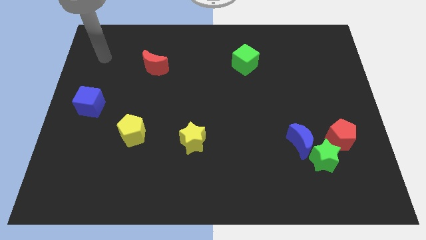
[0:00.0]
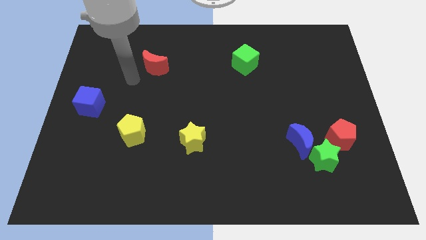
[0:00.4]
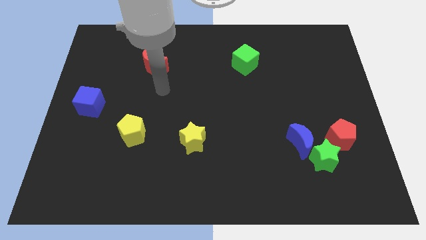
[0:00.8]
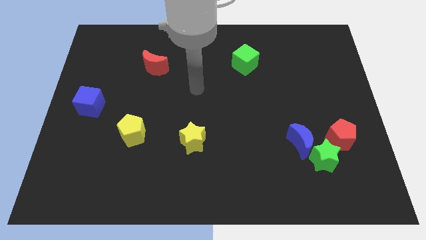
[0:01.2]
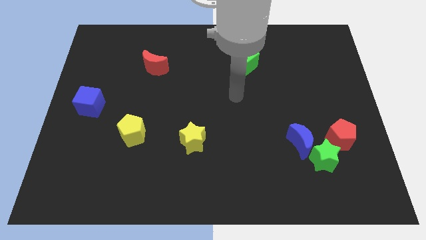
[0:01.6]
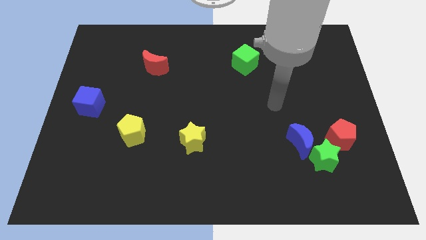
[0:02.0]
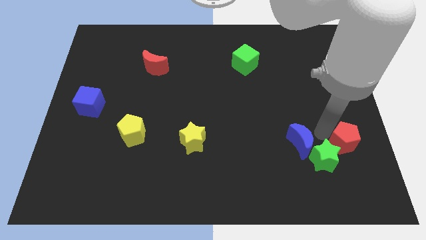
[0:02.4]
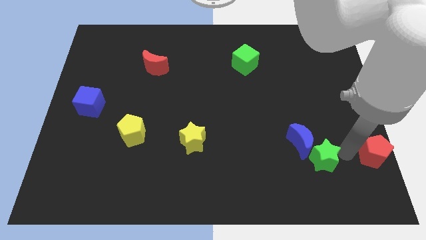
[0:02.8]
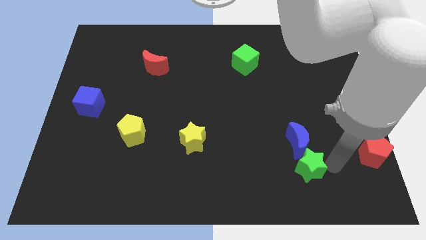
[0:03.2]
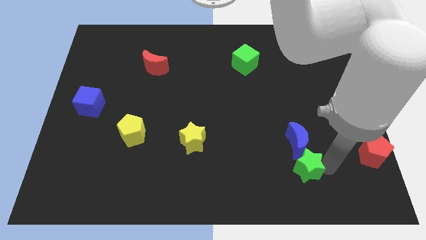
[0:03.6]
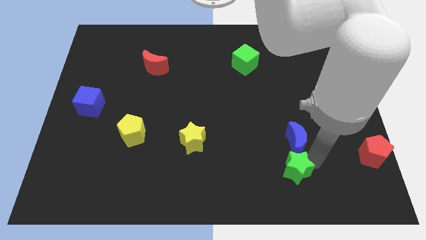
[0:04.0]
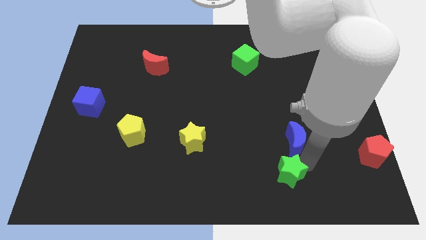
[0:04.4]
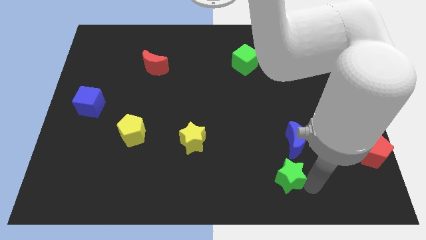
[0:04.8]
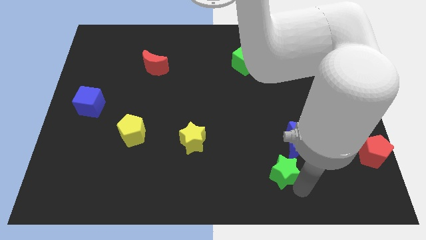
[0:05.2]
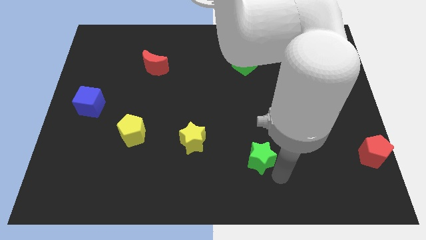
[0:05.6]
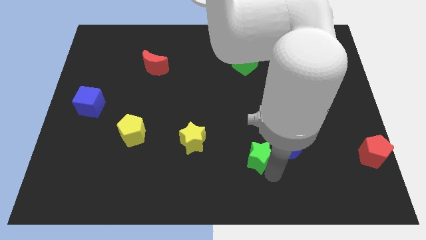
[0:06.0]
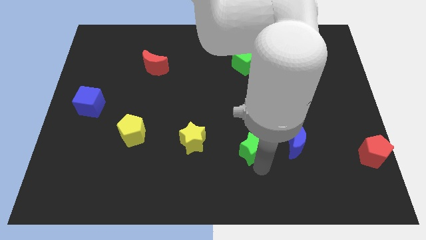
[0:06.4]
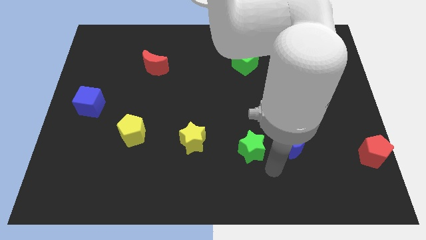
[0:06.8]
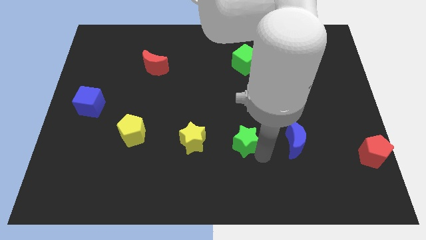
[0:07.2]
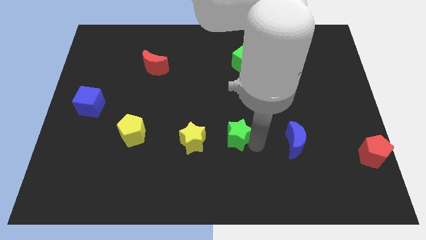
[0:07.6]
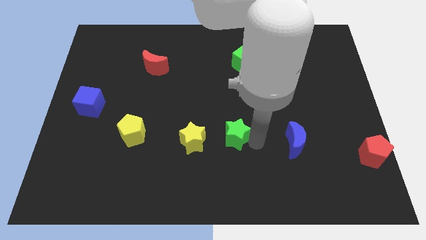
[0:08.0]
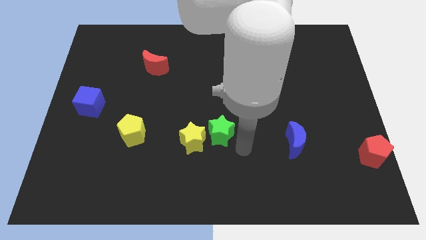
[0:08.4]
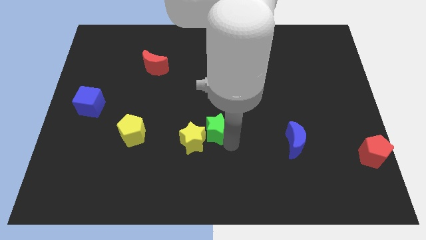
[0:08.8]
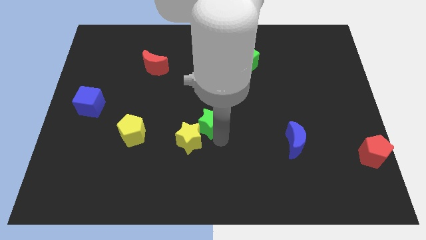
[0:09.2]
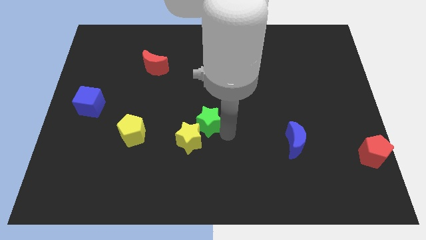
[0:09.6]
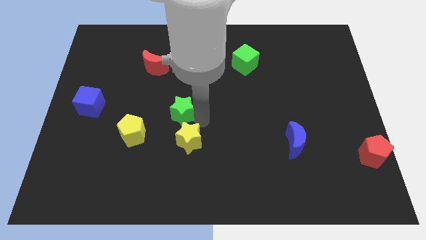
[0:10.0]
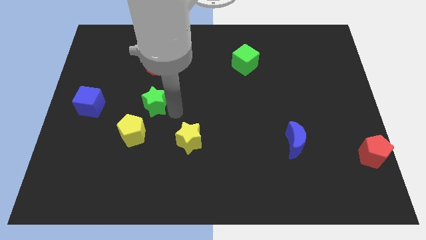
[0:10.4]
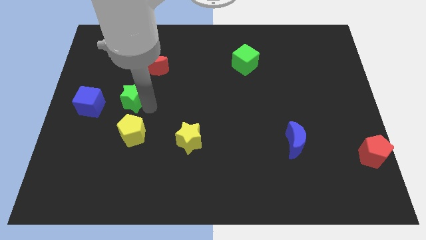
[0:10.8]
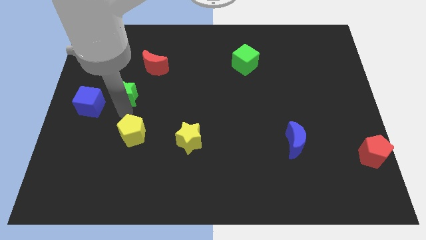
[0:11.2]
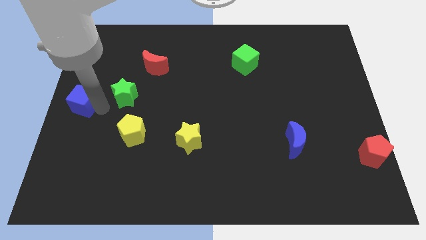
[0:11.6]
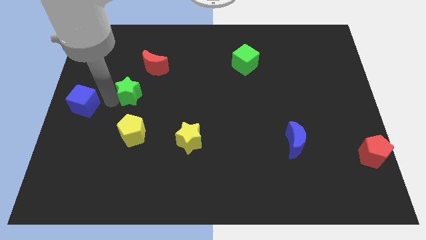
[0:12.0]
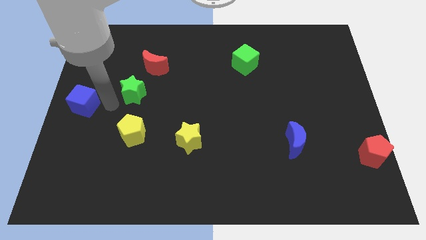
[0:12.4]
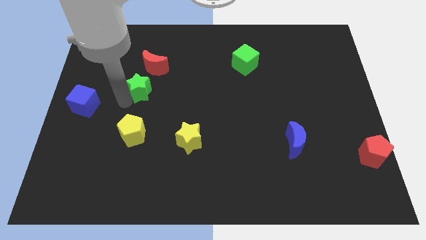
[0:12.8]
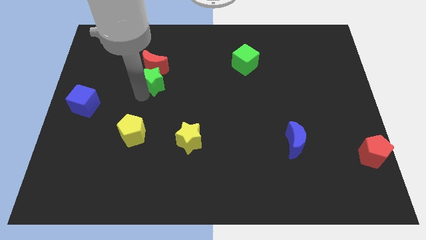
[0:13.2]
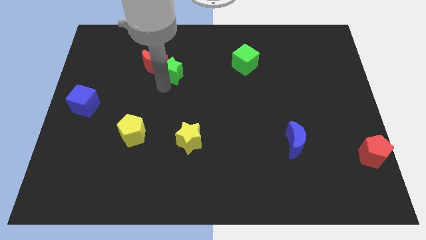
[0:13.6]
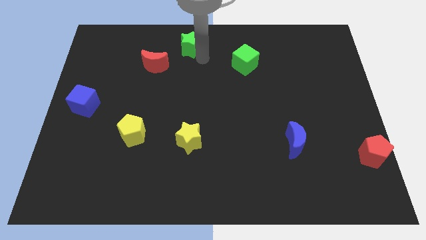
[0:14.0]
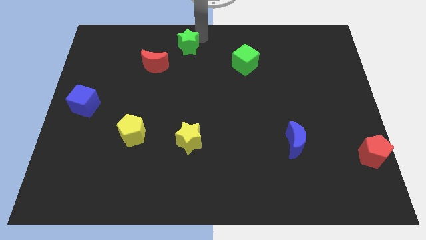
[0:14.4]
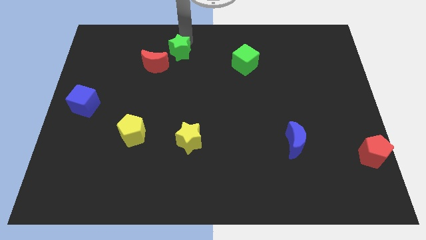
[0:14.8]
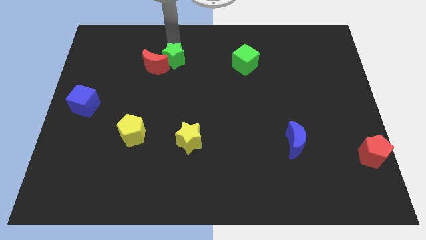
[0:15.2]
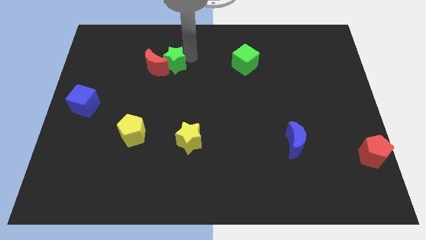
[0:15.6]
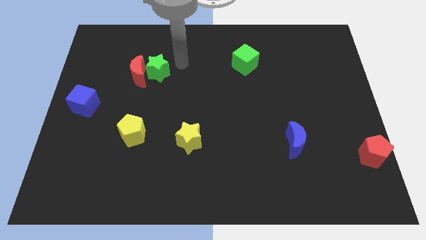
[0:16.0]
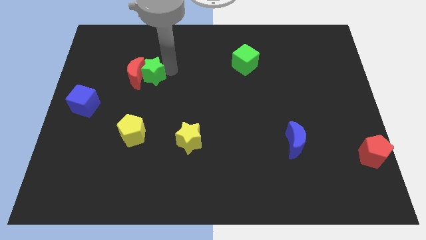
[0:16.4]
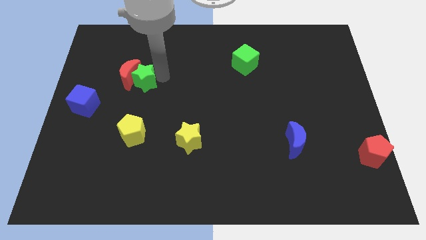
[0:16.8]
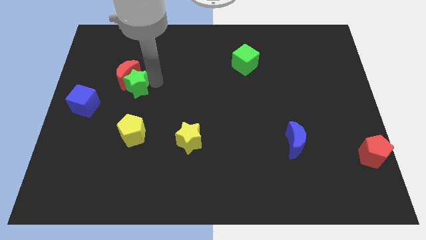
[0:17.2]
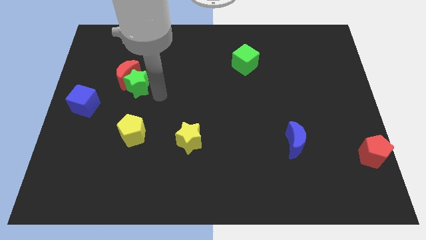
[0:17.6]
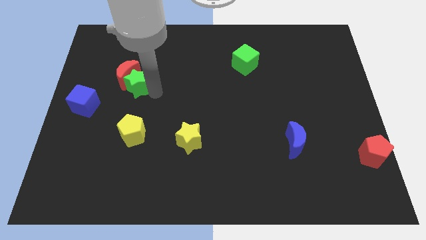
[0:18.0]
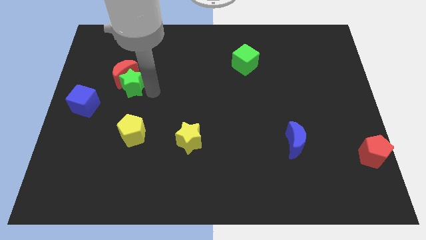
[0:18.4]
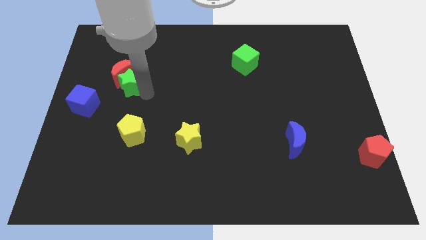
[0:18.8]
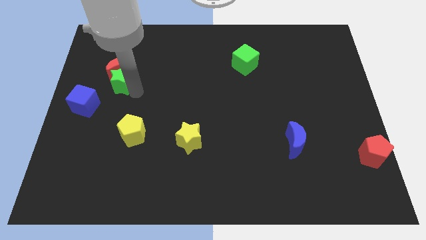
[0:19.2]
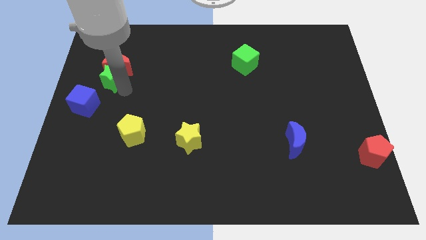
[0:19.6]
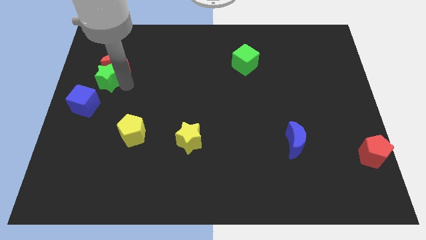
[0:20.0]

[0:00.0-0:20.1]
move the green star to the top side of the blue cube

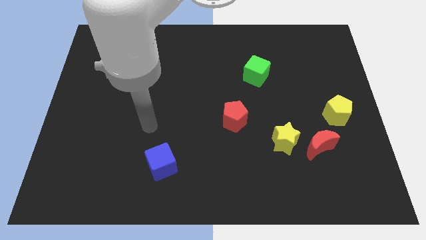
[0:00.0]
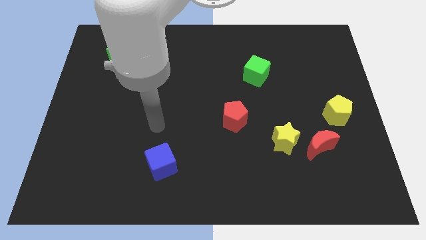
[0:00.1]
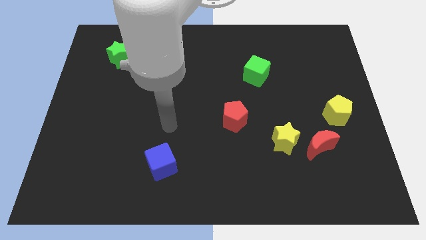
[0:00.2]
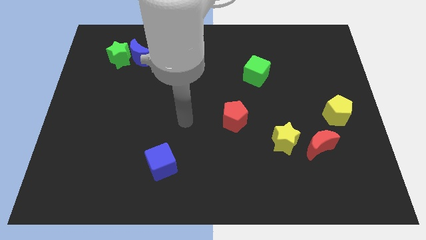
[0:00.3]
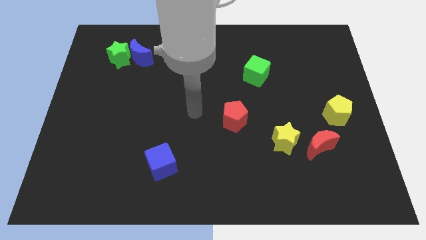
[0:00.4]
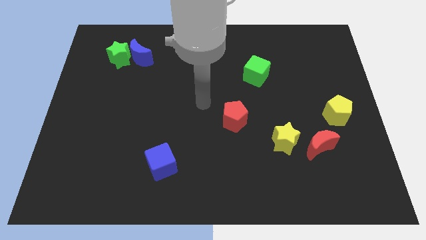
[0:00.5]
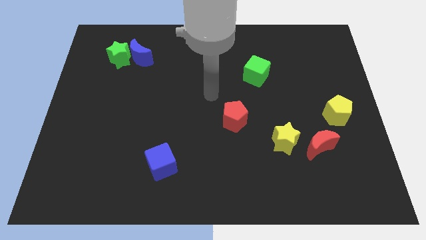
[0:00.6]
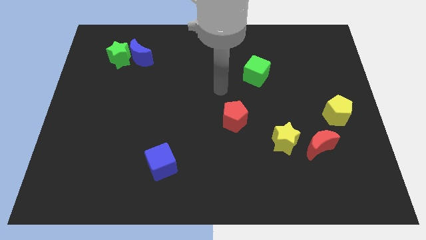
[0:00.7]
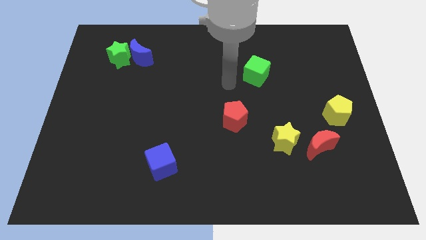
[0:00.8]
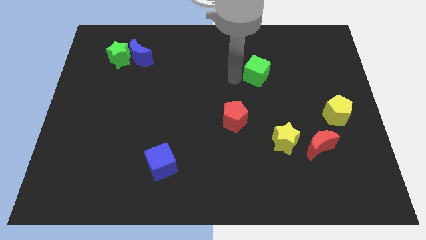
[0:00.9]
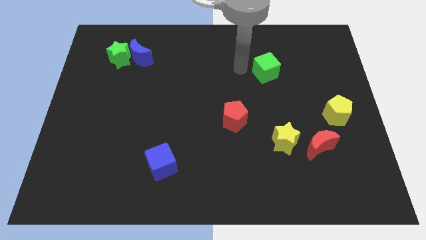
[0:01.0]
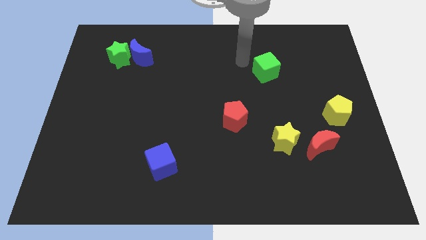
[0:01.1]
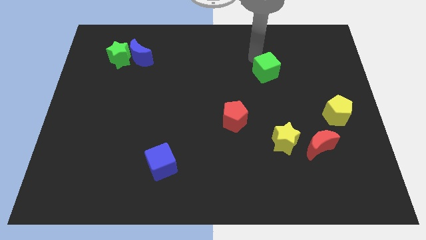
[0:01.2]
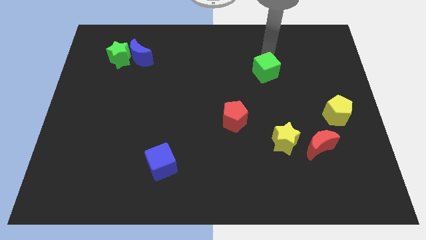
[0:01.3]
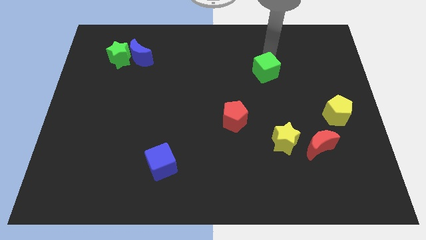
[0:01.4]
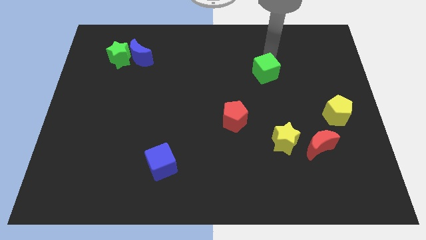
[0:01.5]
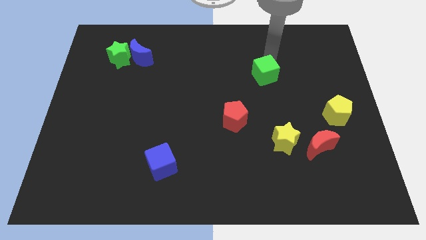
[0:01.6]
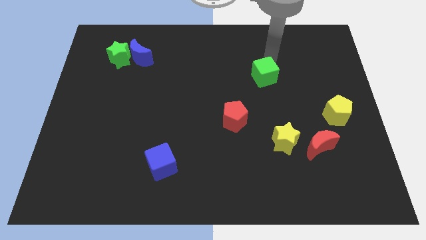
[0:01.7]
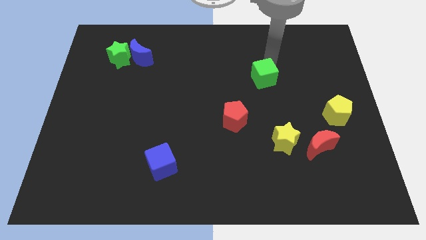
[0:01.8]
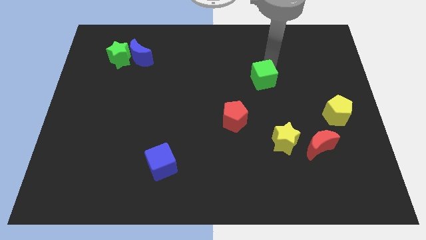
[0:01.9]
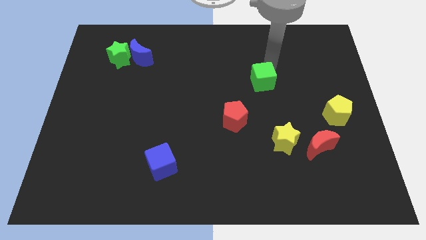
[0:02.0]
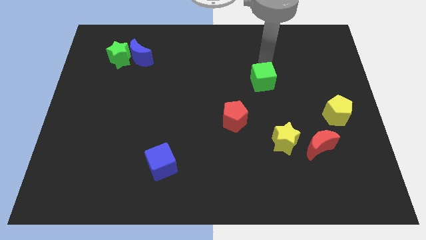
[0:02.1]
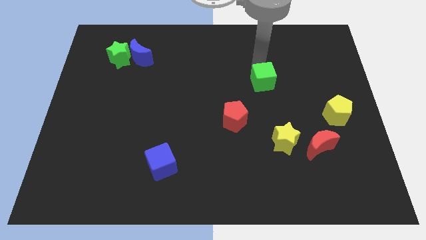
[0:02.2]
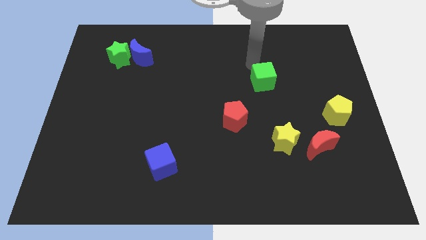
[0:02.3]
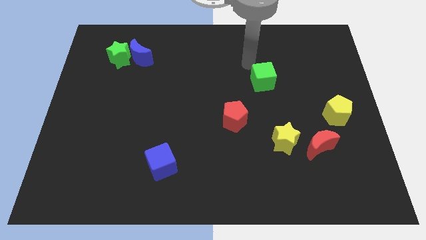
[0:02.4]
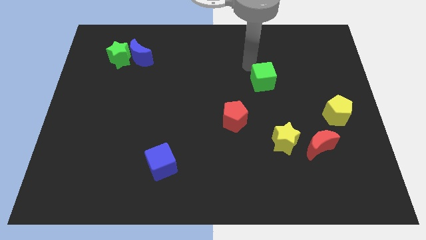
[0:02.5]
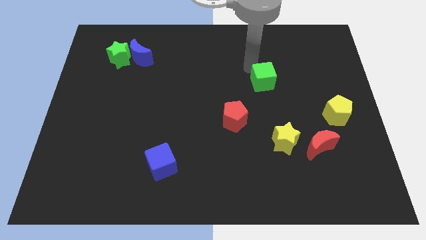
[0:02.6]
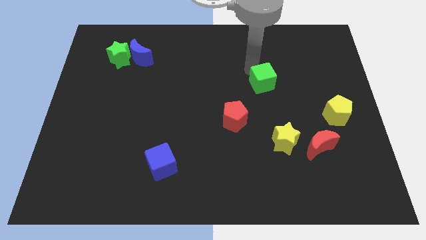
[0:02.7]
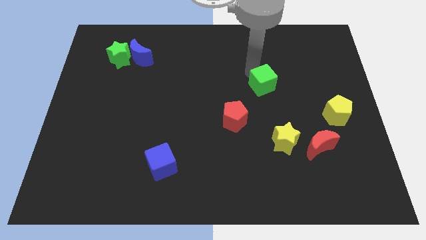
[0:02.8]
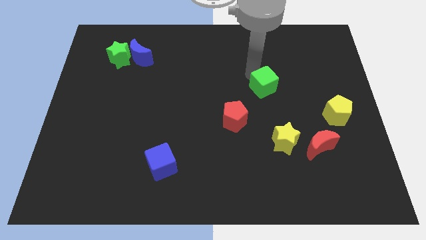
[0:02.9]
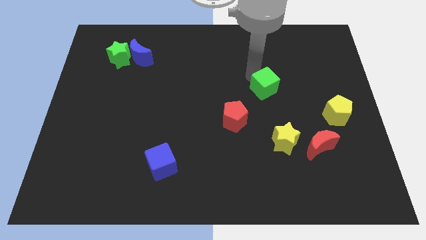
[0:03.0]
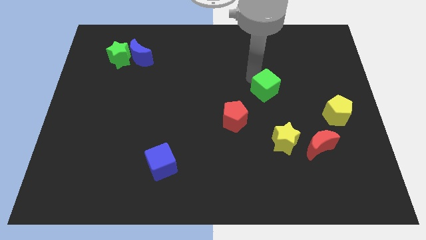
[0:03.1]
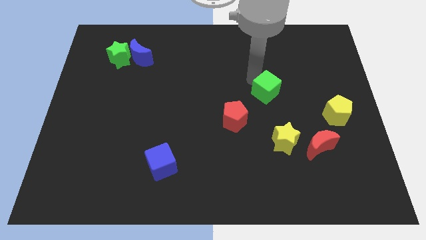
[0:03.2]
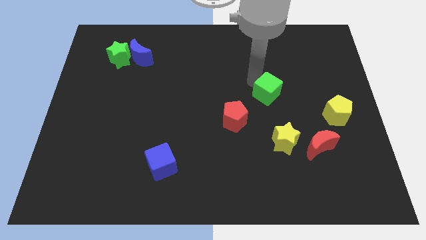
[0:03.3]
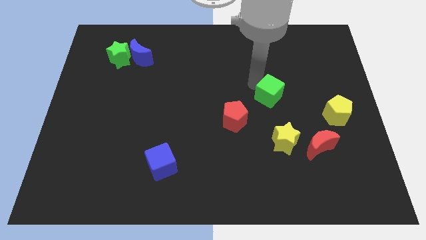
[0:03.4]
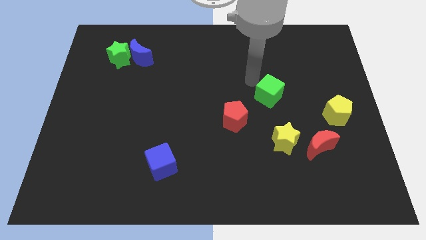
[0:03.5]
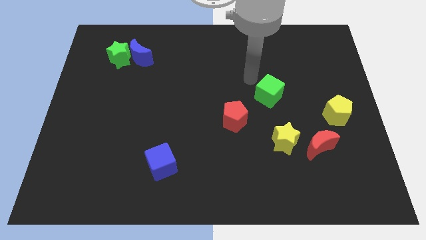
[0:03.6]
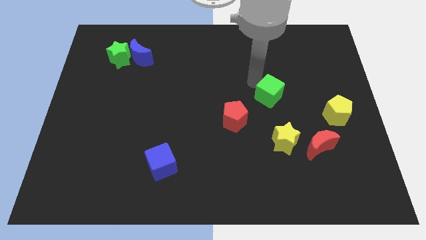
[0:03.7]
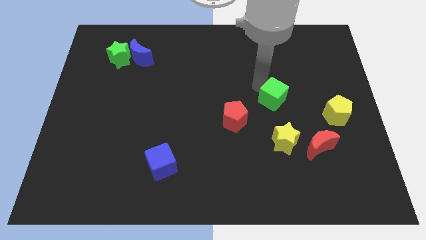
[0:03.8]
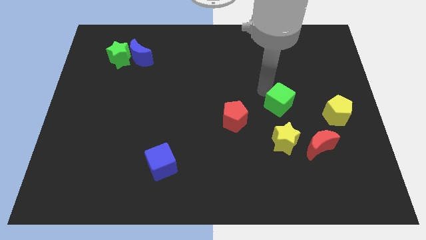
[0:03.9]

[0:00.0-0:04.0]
put the green cube left of the yellow pentagon
